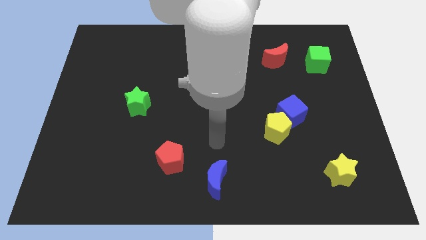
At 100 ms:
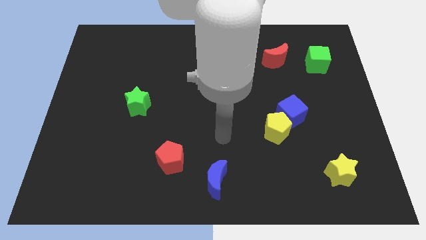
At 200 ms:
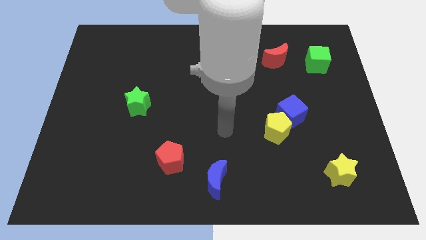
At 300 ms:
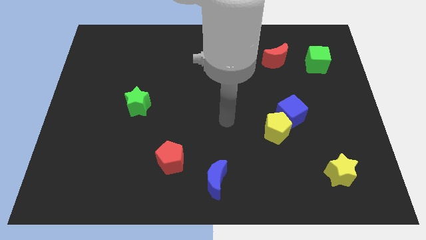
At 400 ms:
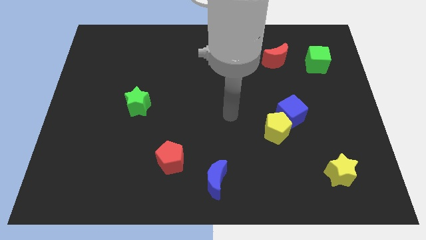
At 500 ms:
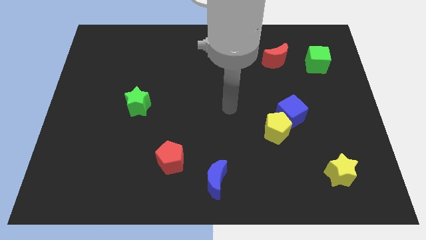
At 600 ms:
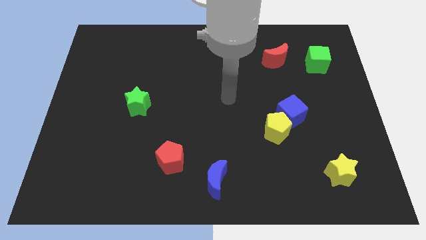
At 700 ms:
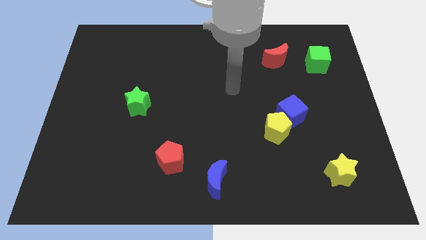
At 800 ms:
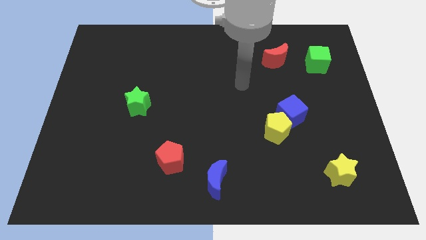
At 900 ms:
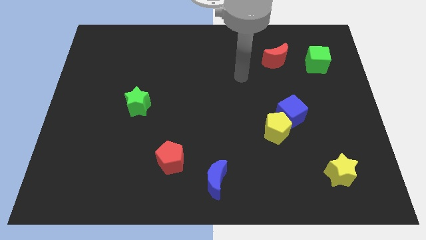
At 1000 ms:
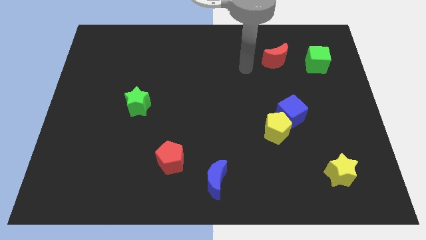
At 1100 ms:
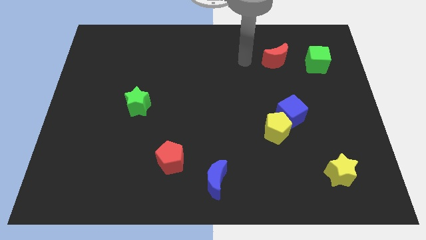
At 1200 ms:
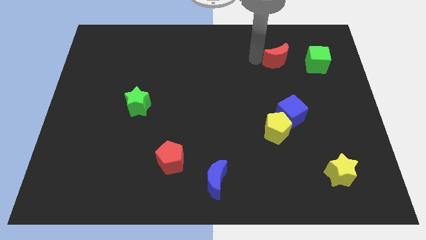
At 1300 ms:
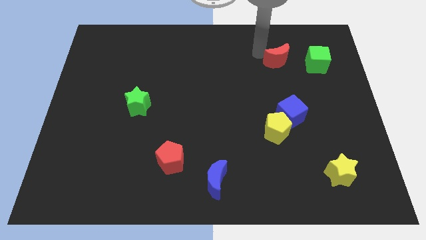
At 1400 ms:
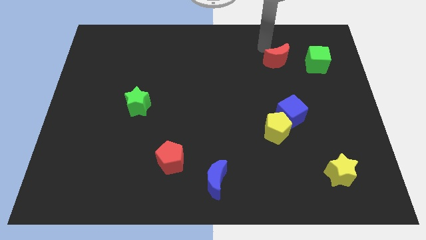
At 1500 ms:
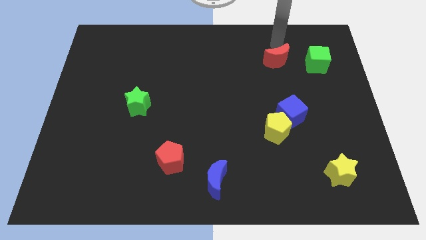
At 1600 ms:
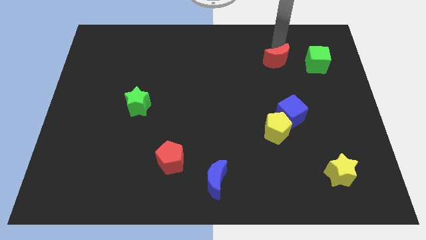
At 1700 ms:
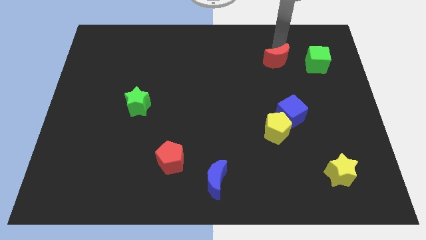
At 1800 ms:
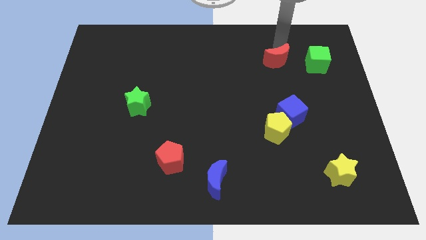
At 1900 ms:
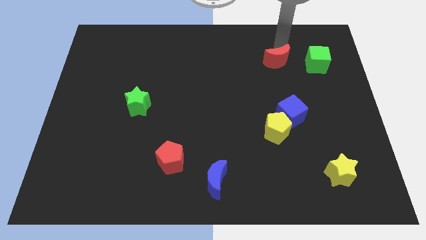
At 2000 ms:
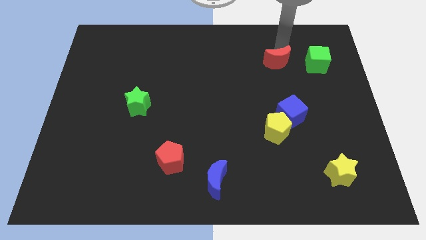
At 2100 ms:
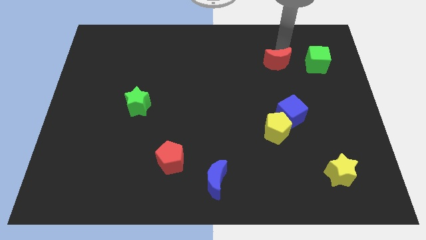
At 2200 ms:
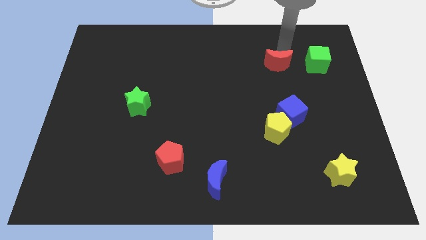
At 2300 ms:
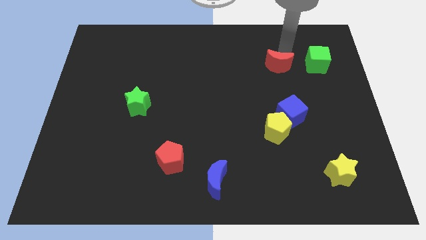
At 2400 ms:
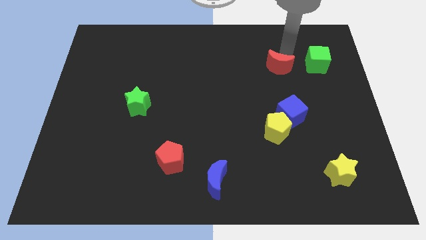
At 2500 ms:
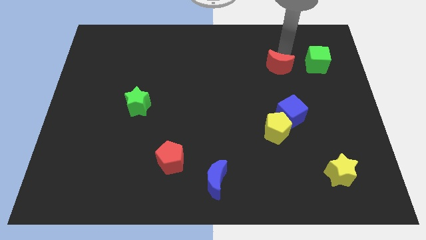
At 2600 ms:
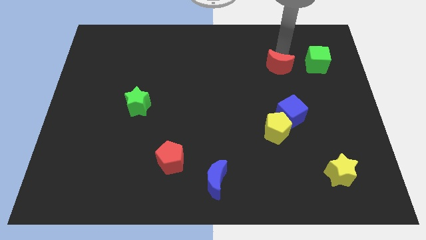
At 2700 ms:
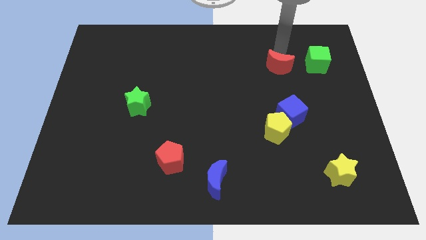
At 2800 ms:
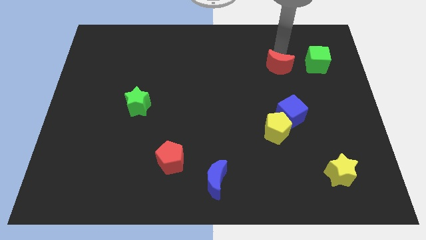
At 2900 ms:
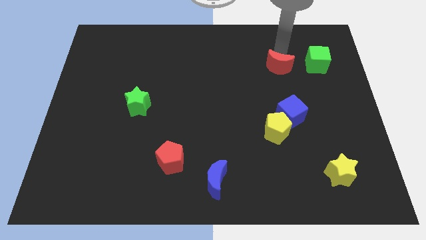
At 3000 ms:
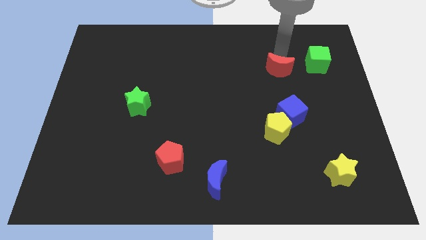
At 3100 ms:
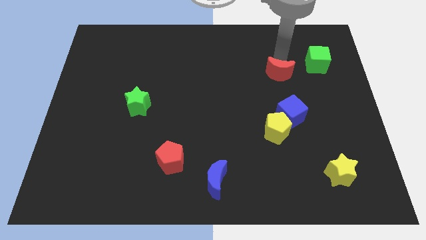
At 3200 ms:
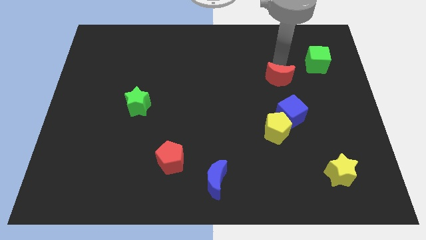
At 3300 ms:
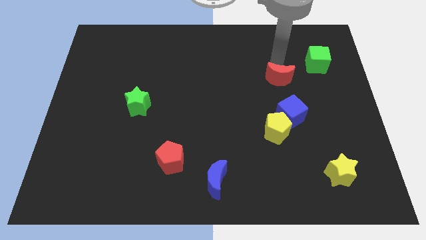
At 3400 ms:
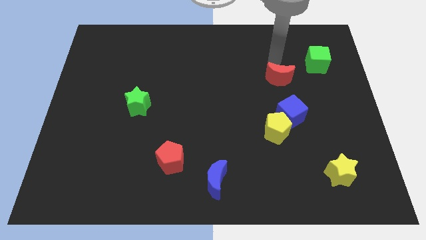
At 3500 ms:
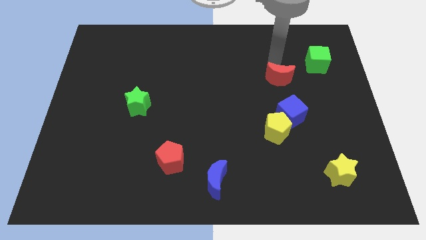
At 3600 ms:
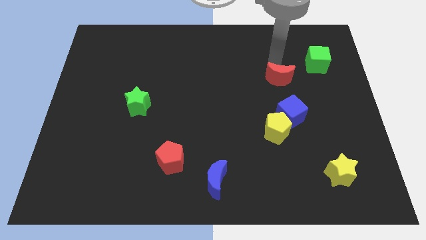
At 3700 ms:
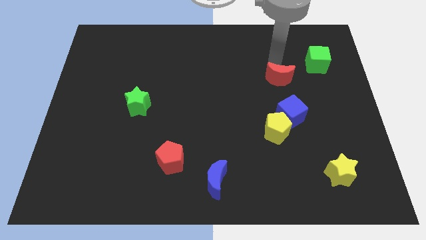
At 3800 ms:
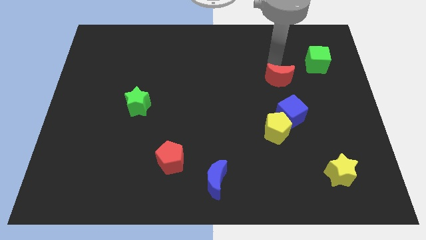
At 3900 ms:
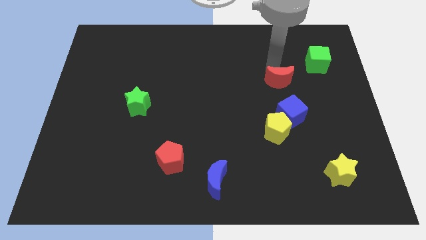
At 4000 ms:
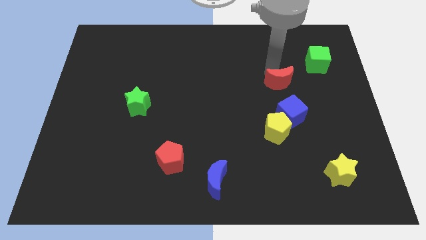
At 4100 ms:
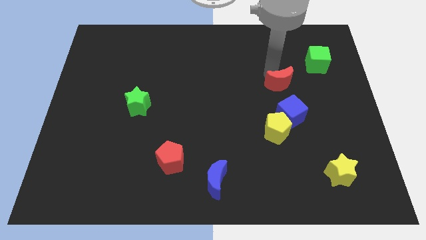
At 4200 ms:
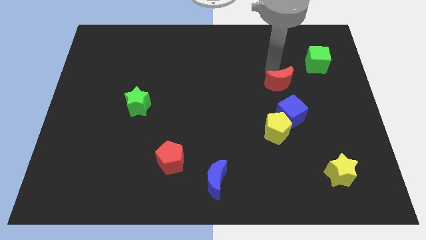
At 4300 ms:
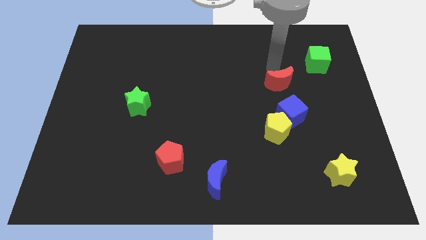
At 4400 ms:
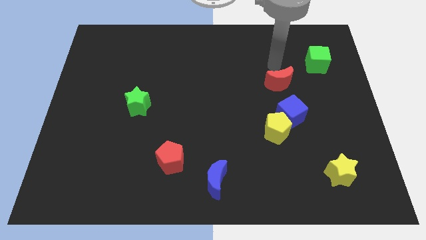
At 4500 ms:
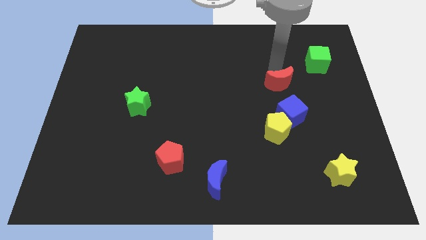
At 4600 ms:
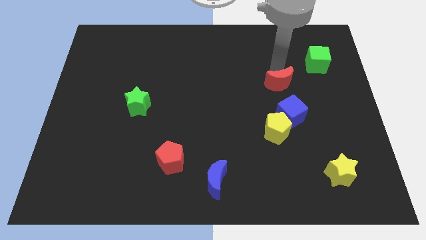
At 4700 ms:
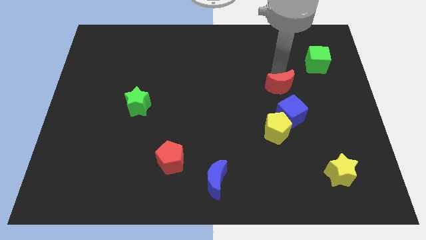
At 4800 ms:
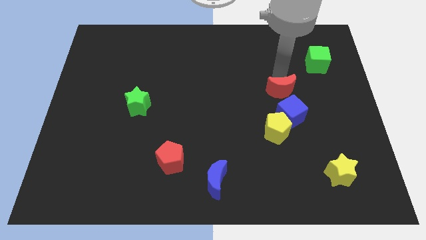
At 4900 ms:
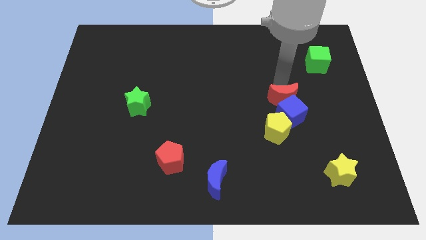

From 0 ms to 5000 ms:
move the red moon close to the blue cube

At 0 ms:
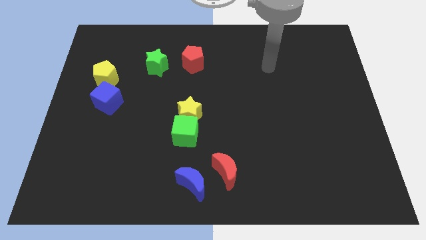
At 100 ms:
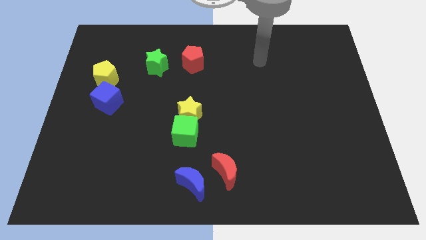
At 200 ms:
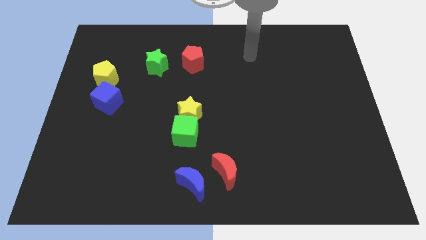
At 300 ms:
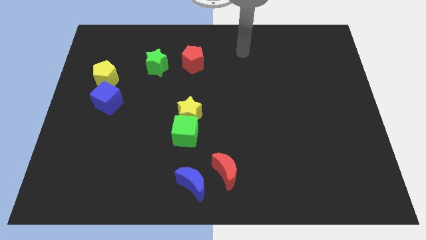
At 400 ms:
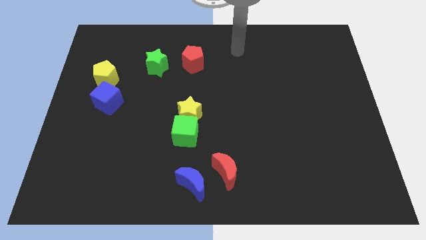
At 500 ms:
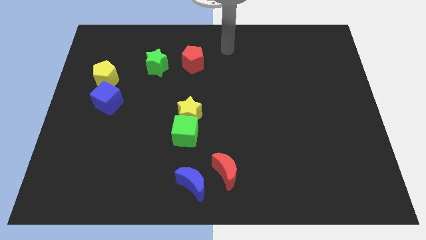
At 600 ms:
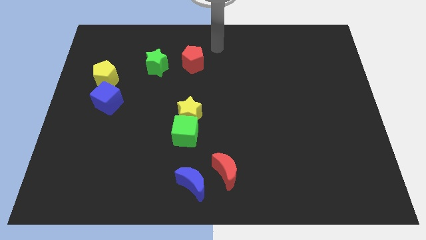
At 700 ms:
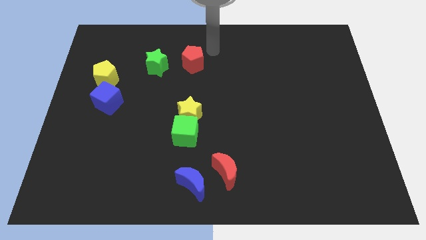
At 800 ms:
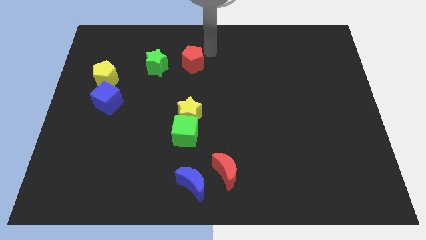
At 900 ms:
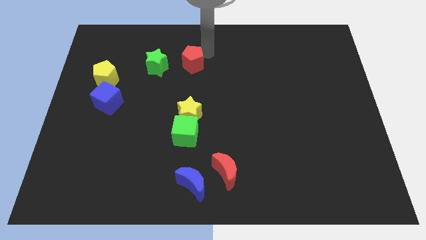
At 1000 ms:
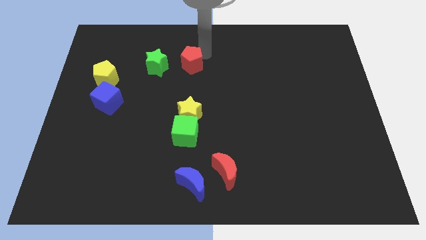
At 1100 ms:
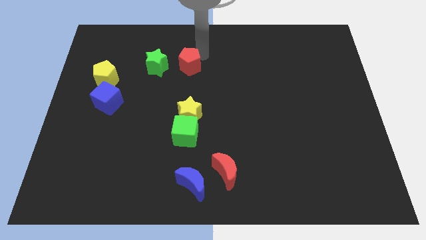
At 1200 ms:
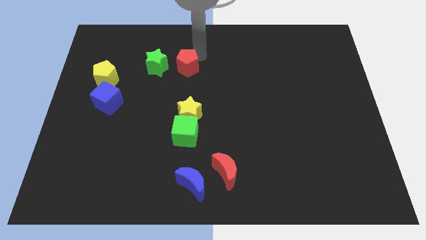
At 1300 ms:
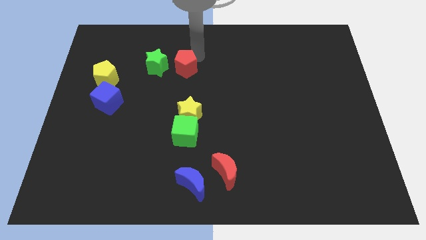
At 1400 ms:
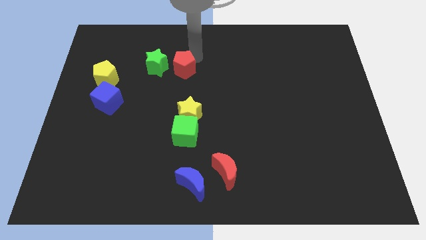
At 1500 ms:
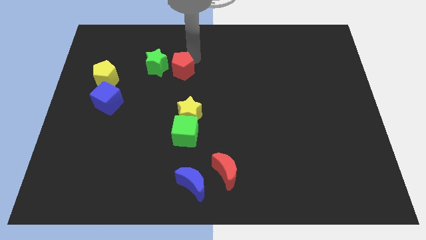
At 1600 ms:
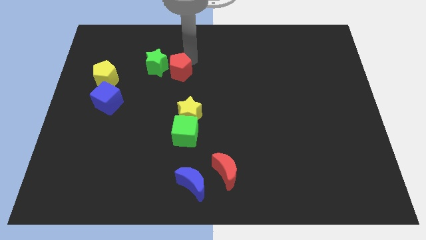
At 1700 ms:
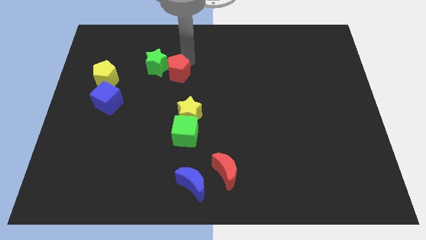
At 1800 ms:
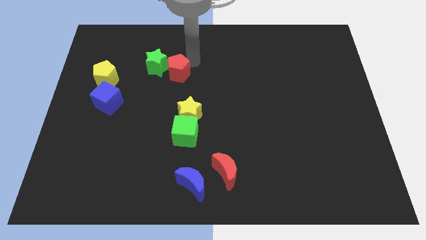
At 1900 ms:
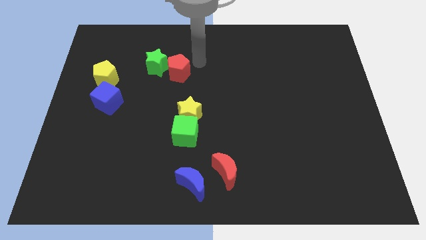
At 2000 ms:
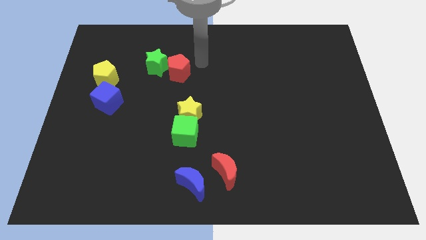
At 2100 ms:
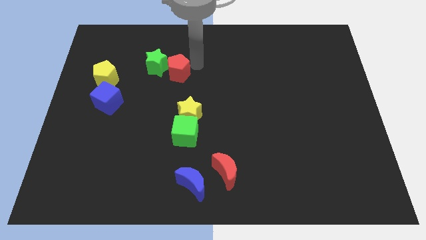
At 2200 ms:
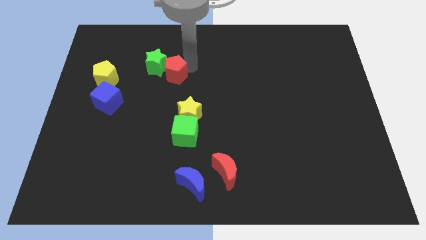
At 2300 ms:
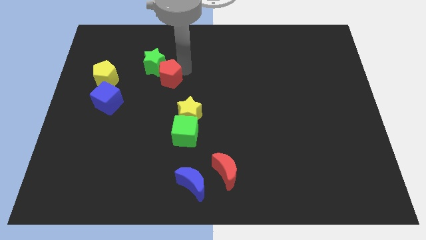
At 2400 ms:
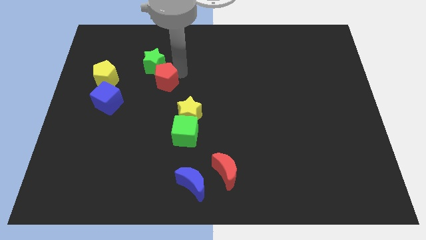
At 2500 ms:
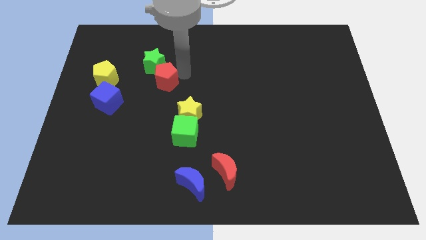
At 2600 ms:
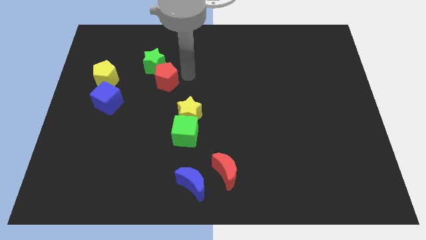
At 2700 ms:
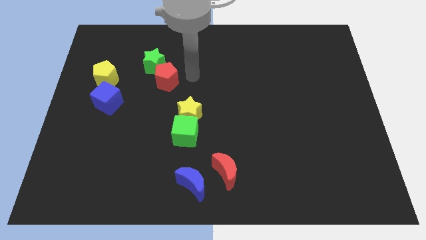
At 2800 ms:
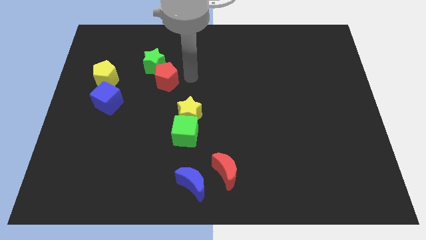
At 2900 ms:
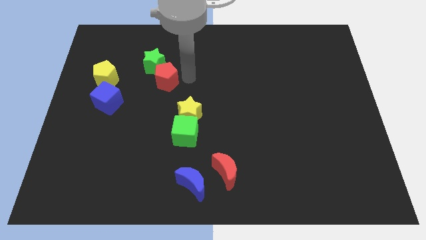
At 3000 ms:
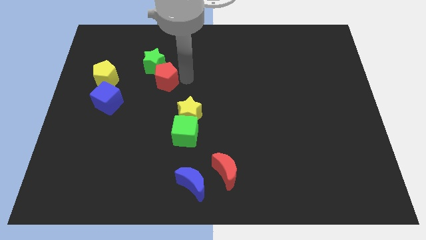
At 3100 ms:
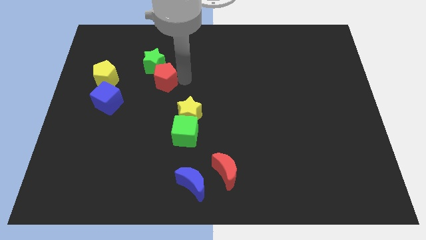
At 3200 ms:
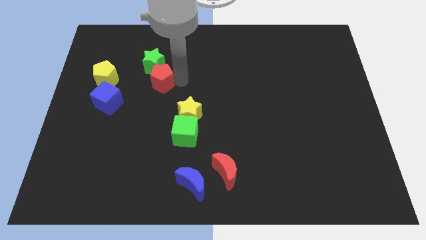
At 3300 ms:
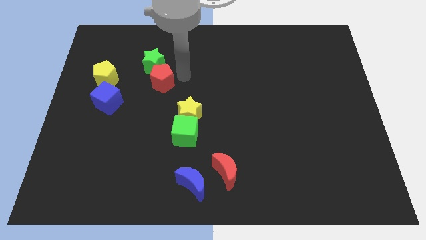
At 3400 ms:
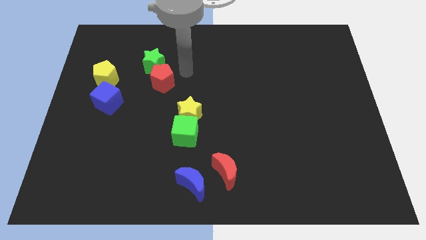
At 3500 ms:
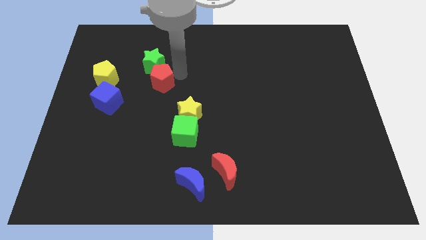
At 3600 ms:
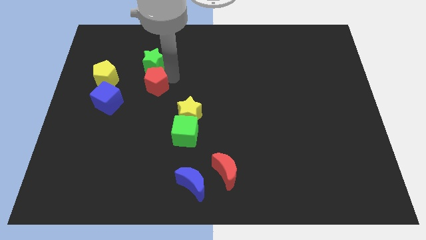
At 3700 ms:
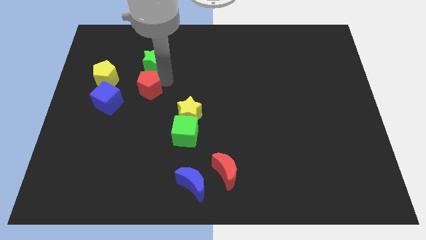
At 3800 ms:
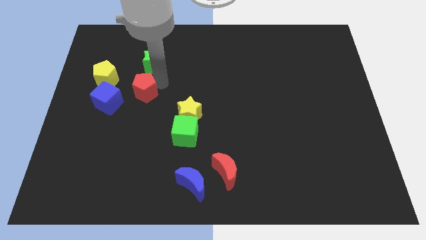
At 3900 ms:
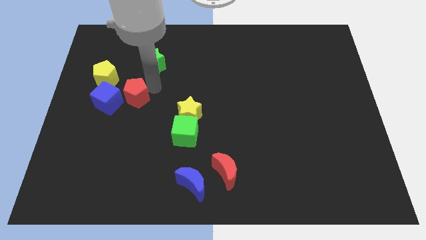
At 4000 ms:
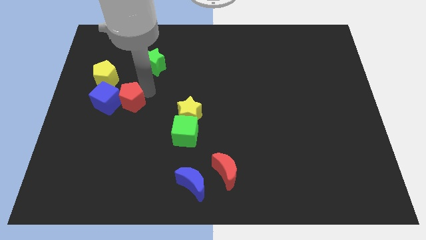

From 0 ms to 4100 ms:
move the red pentagon towards the blue cube
